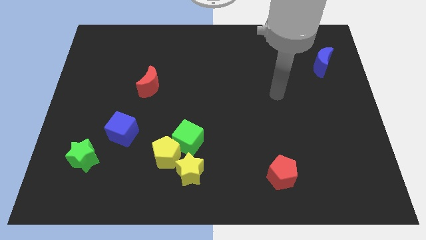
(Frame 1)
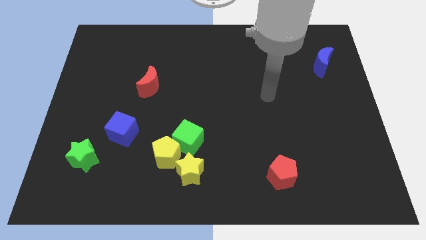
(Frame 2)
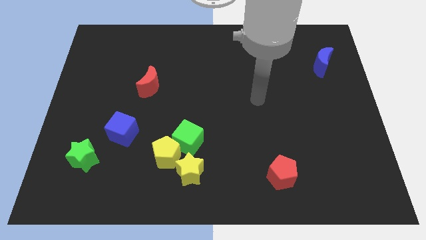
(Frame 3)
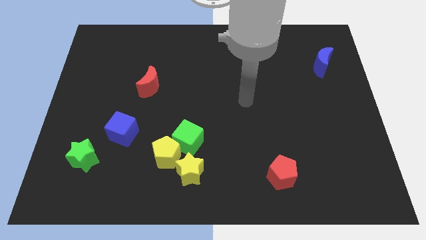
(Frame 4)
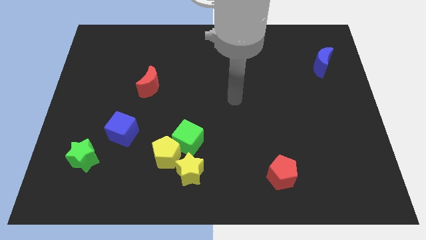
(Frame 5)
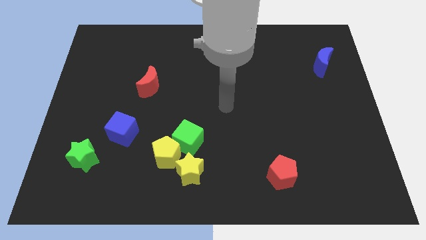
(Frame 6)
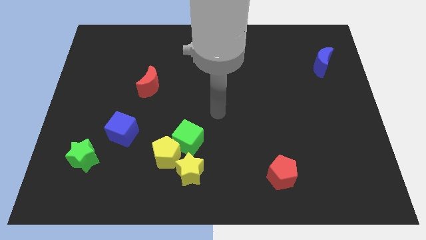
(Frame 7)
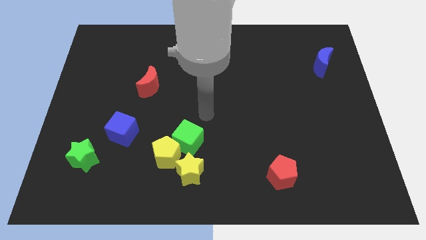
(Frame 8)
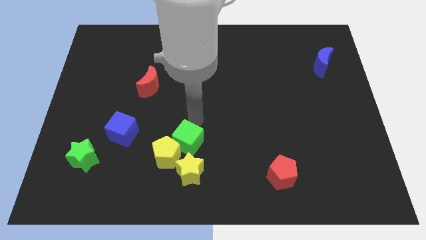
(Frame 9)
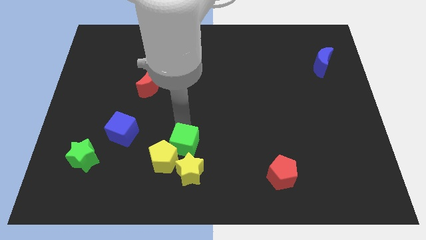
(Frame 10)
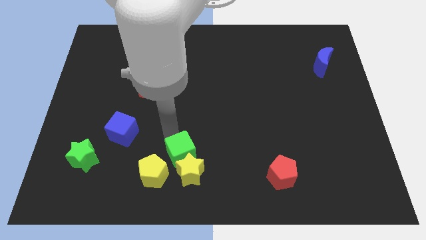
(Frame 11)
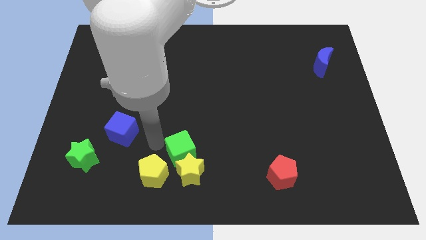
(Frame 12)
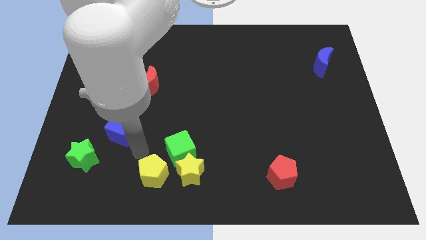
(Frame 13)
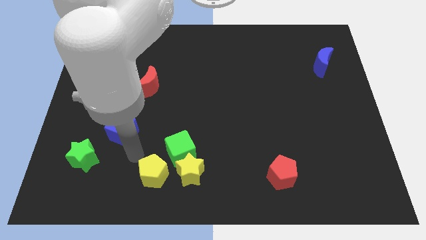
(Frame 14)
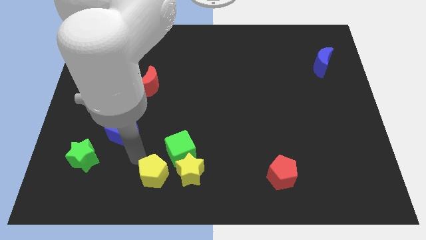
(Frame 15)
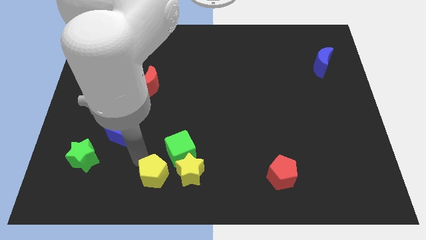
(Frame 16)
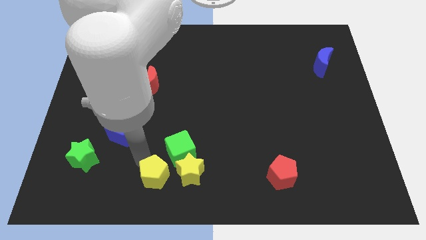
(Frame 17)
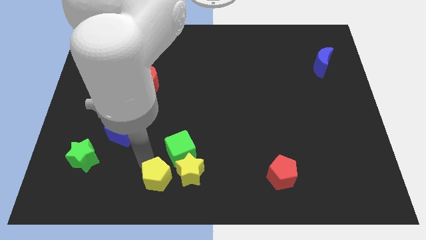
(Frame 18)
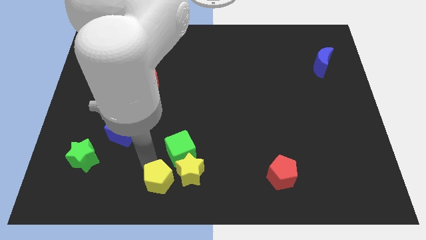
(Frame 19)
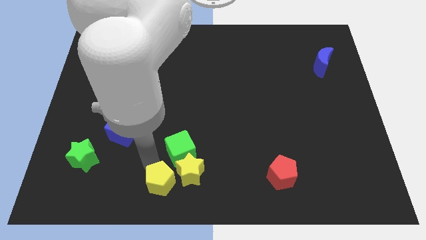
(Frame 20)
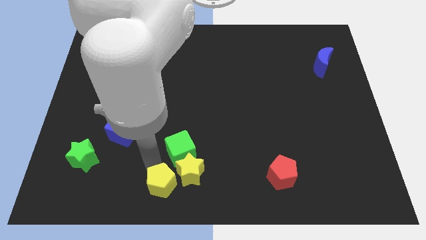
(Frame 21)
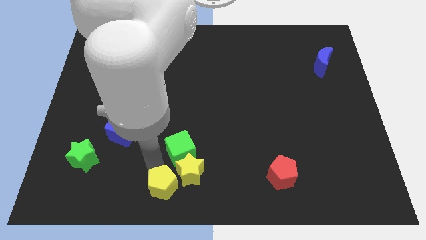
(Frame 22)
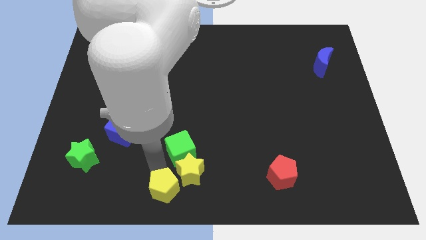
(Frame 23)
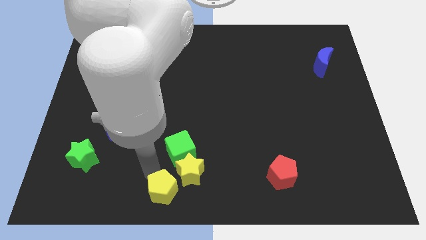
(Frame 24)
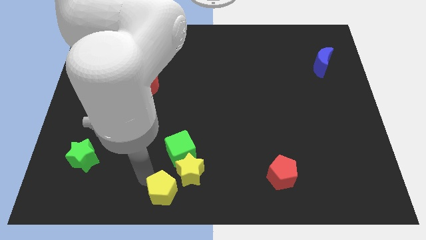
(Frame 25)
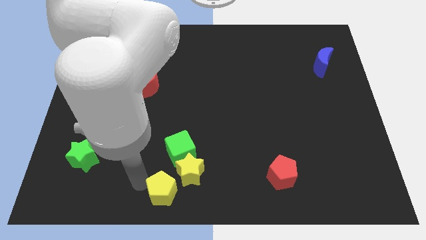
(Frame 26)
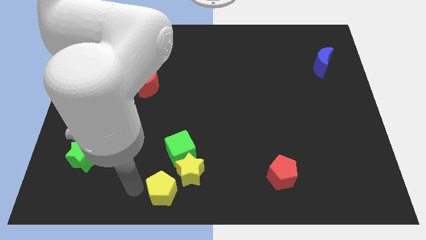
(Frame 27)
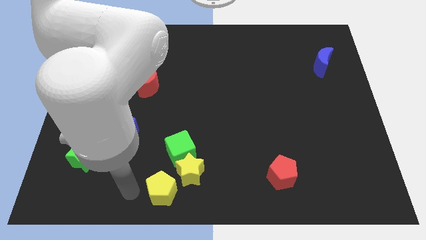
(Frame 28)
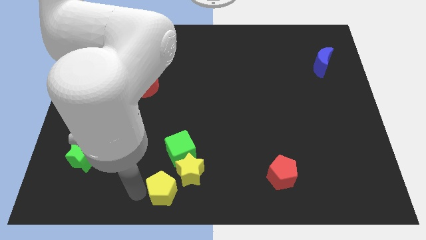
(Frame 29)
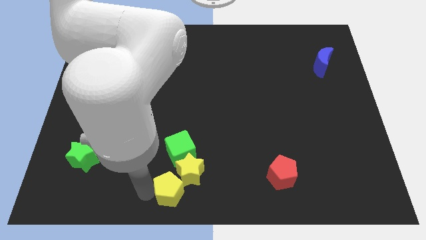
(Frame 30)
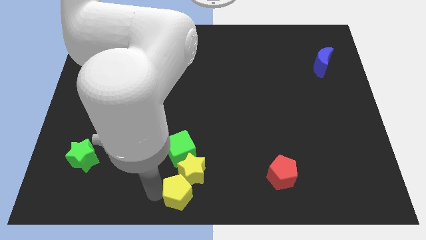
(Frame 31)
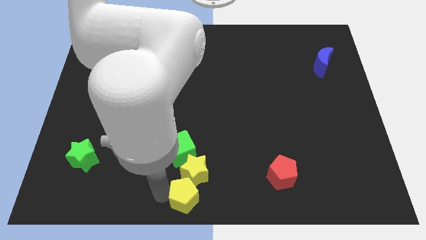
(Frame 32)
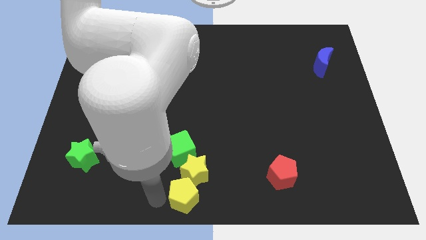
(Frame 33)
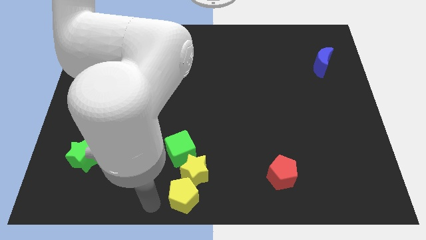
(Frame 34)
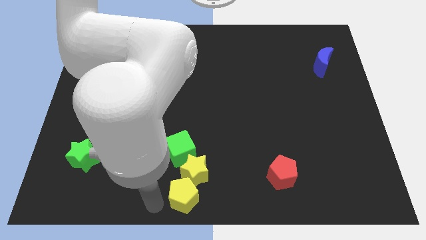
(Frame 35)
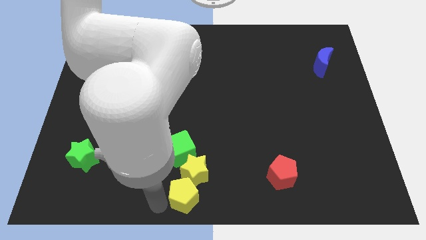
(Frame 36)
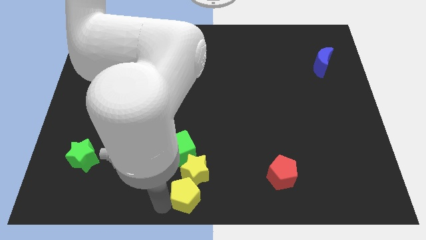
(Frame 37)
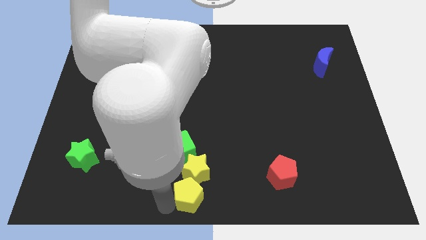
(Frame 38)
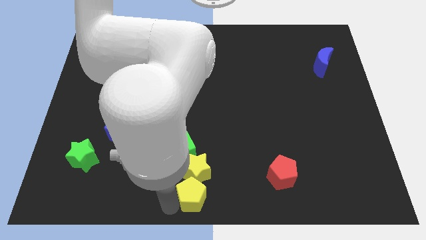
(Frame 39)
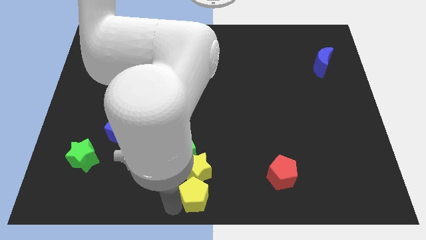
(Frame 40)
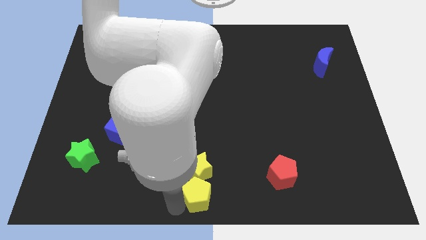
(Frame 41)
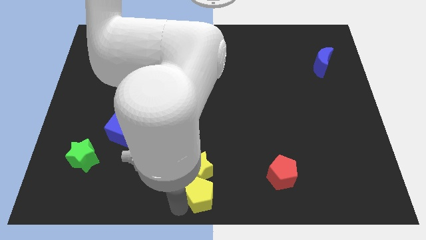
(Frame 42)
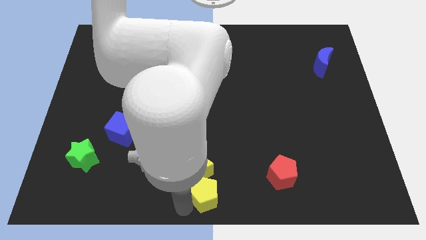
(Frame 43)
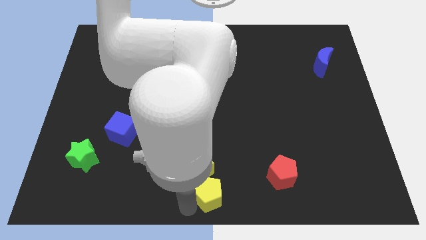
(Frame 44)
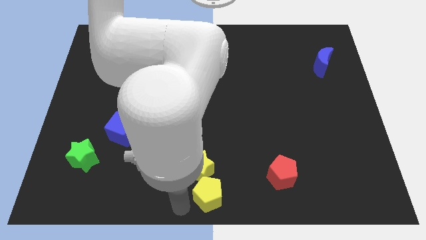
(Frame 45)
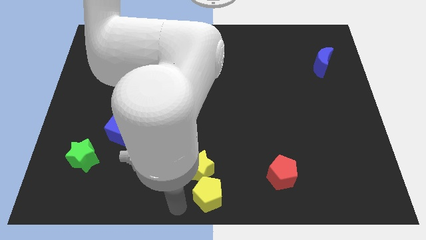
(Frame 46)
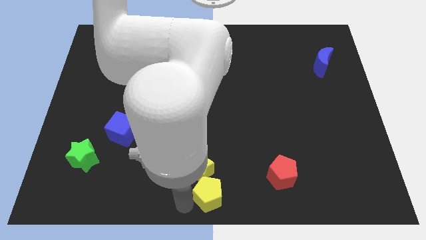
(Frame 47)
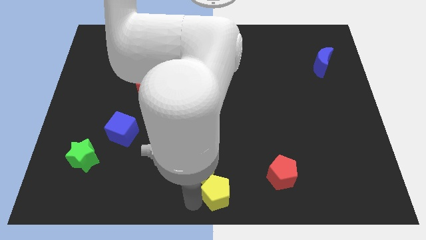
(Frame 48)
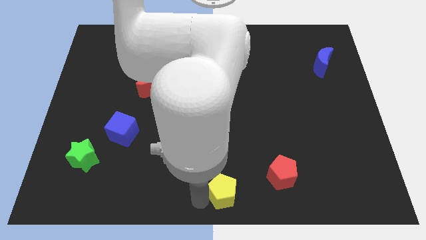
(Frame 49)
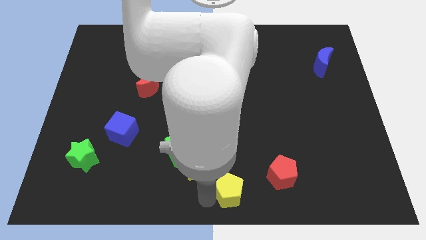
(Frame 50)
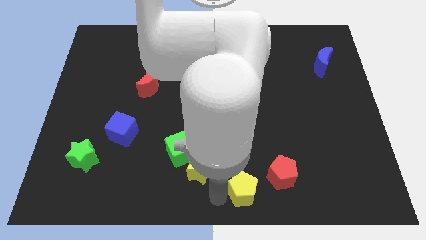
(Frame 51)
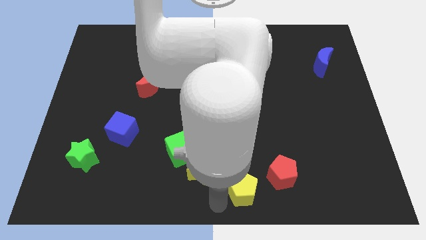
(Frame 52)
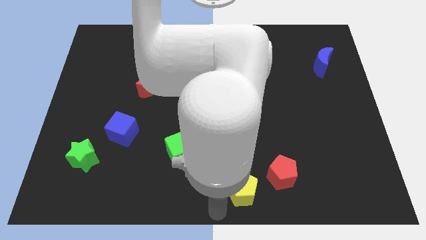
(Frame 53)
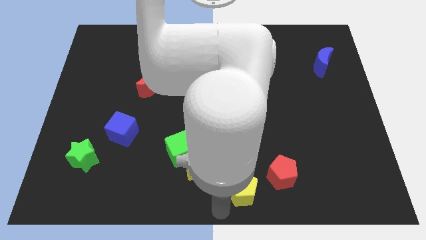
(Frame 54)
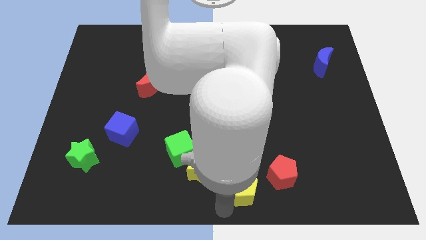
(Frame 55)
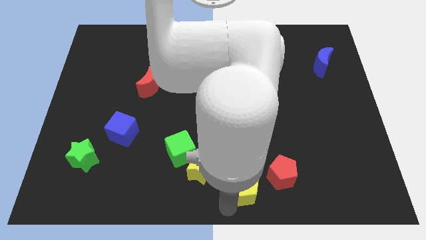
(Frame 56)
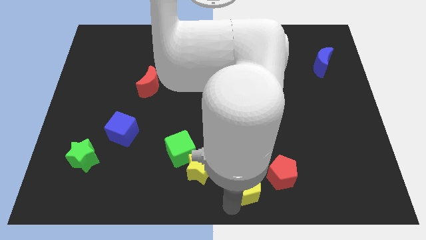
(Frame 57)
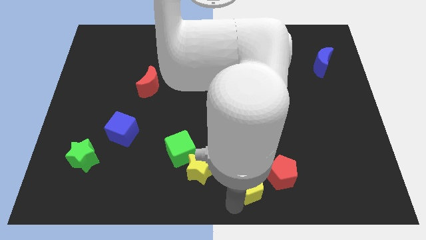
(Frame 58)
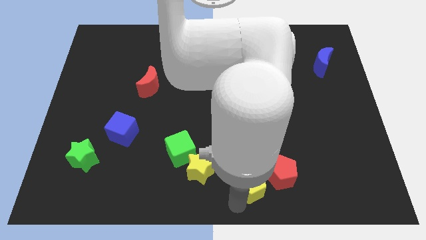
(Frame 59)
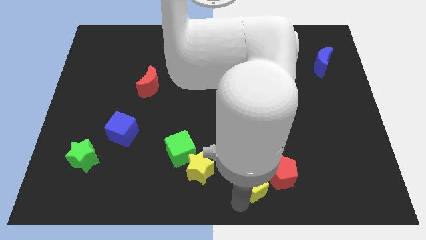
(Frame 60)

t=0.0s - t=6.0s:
push the yellow pentagon to the red pentagon

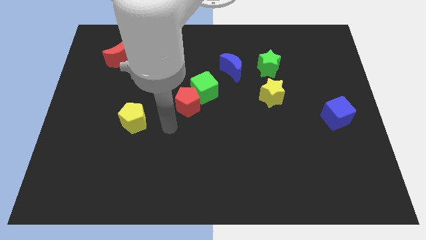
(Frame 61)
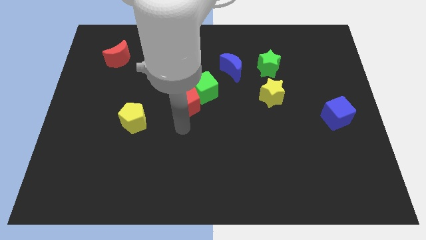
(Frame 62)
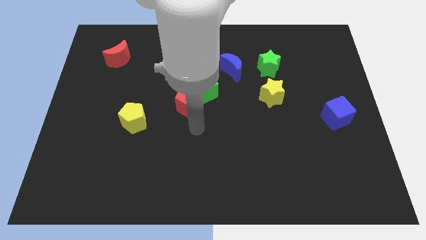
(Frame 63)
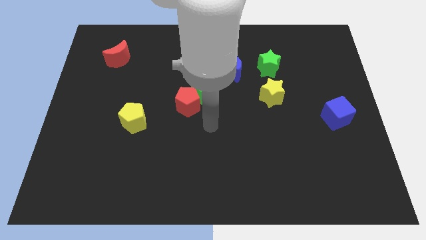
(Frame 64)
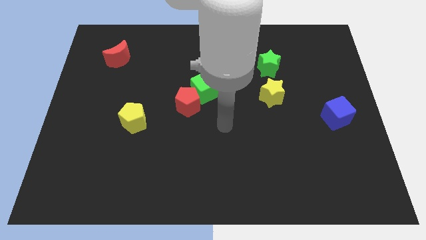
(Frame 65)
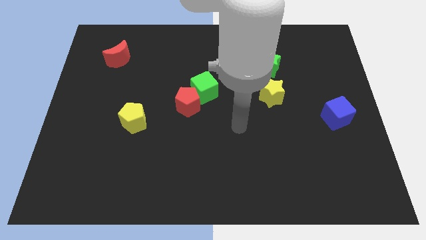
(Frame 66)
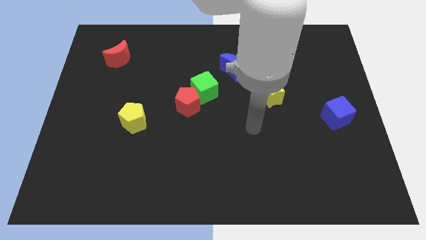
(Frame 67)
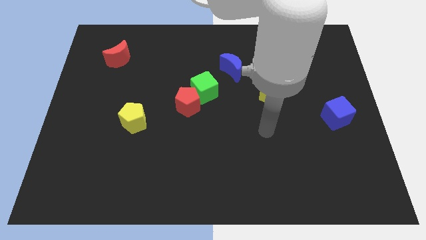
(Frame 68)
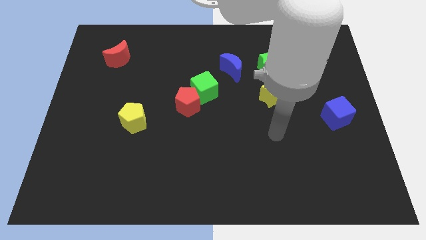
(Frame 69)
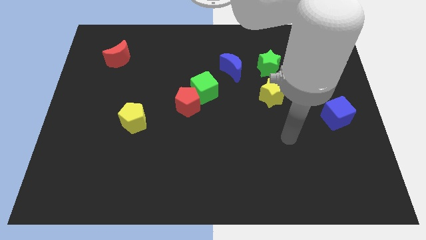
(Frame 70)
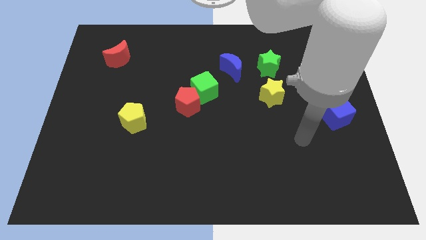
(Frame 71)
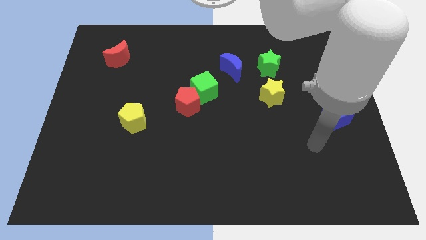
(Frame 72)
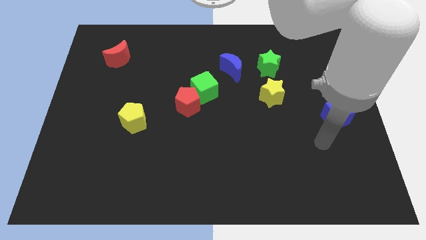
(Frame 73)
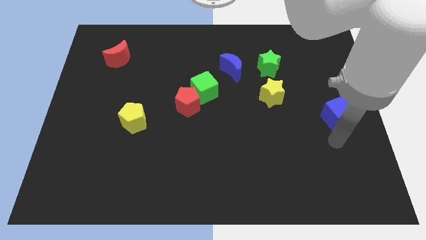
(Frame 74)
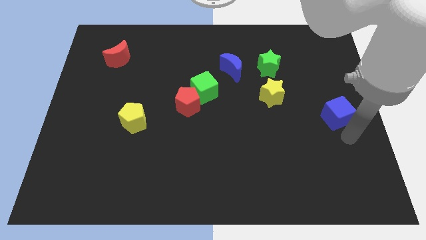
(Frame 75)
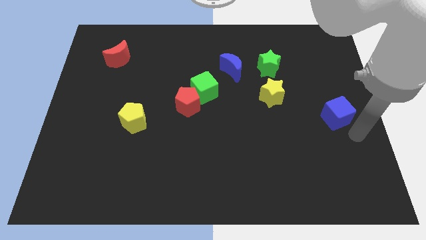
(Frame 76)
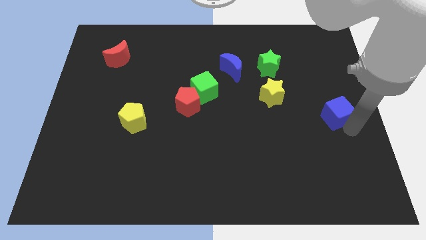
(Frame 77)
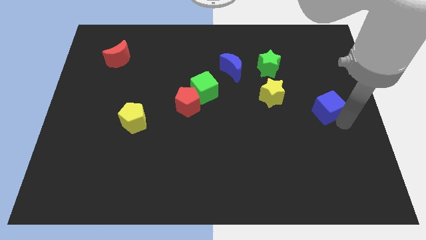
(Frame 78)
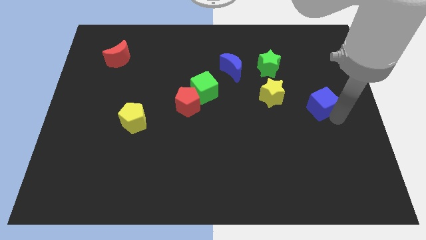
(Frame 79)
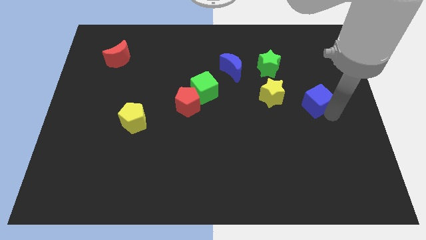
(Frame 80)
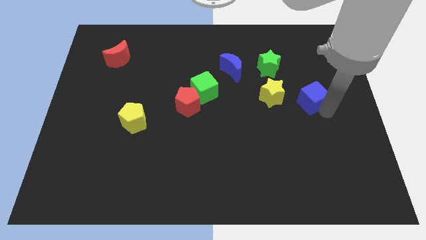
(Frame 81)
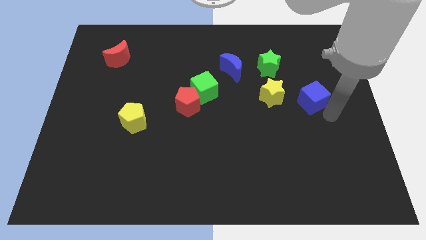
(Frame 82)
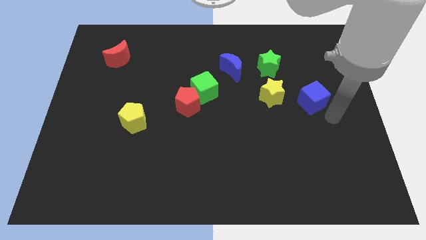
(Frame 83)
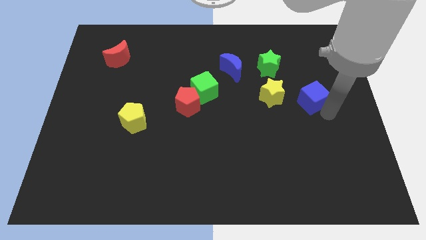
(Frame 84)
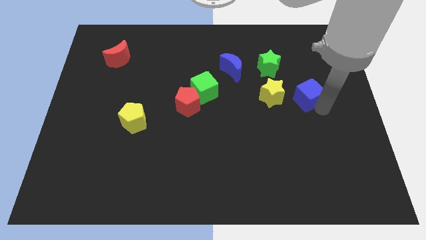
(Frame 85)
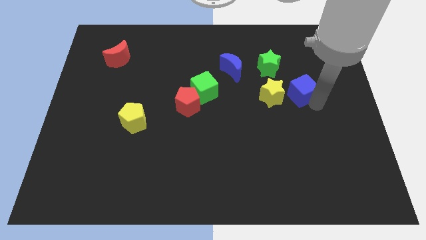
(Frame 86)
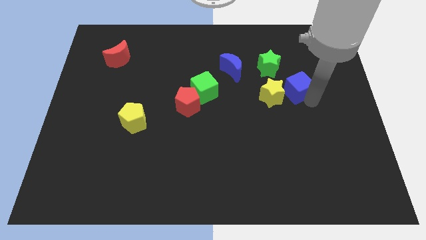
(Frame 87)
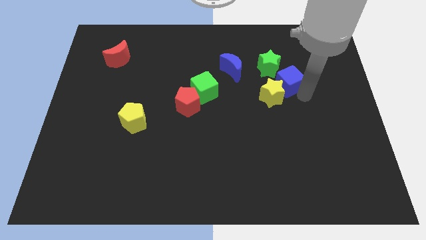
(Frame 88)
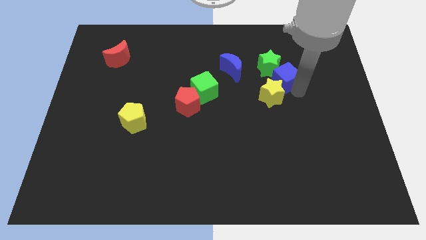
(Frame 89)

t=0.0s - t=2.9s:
slide the blue cube towards the green star
